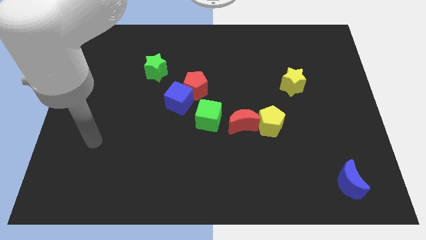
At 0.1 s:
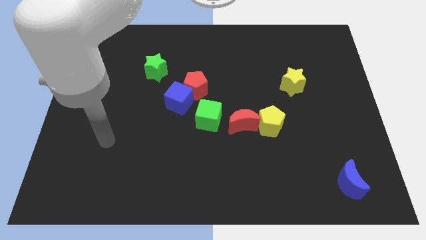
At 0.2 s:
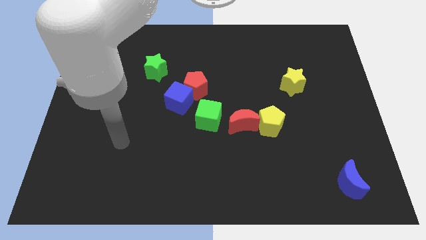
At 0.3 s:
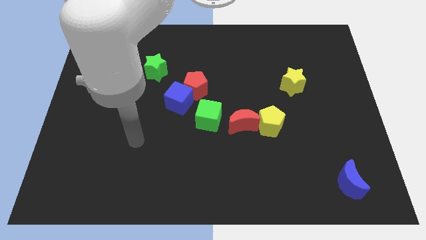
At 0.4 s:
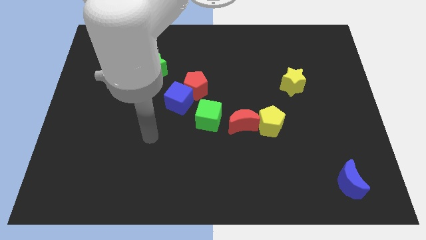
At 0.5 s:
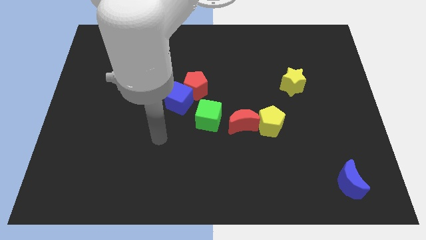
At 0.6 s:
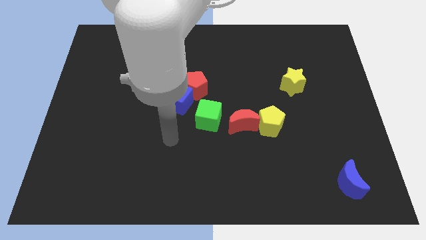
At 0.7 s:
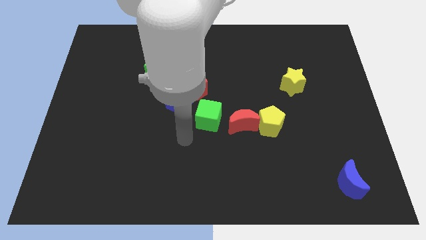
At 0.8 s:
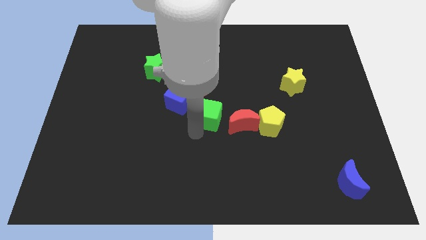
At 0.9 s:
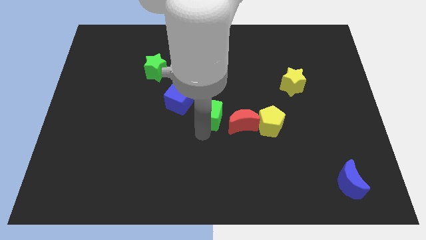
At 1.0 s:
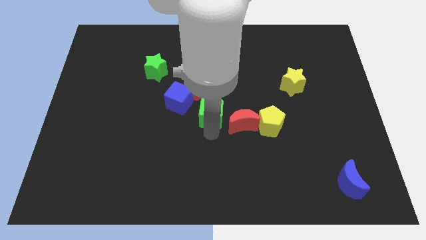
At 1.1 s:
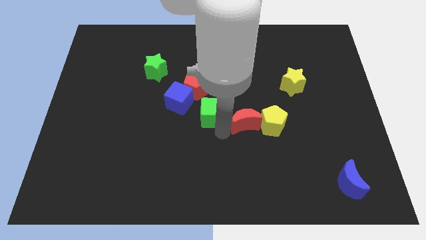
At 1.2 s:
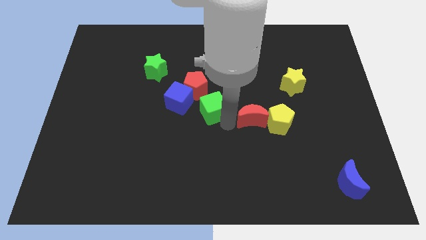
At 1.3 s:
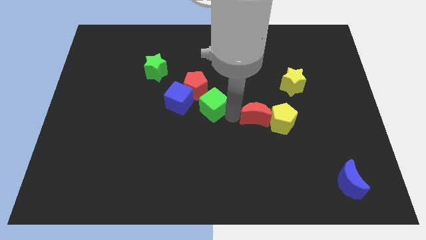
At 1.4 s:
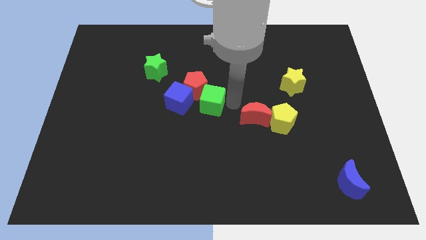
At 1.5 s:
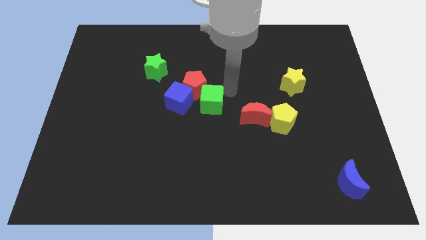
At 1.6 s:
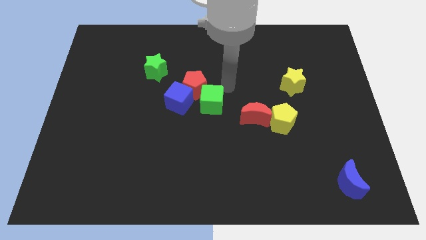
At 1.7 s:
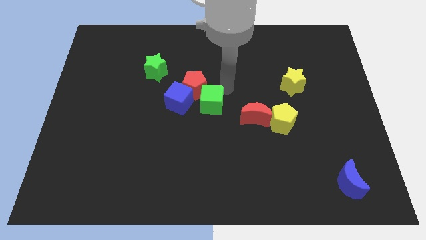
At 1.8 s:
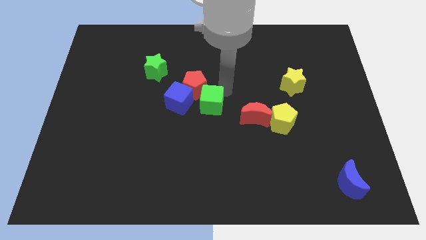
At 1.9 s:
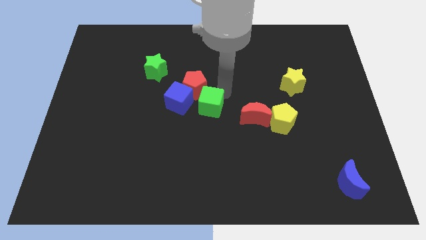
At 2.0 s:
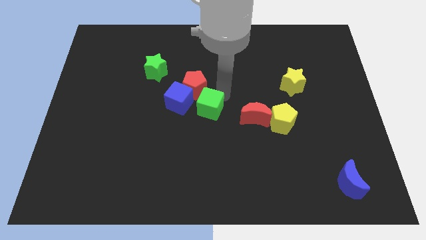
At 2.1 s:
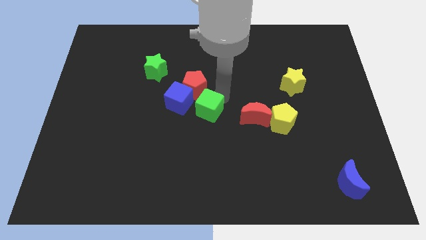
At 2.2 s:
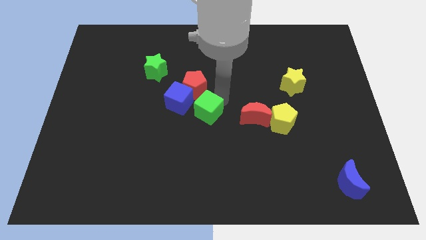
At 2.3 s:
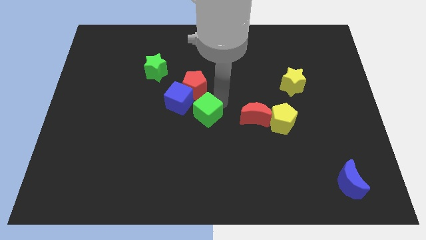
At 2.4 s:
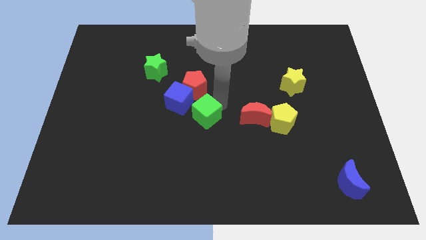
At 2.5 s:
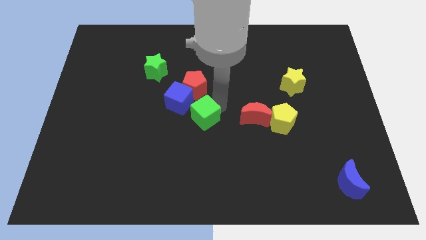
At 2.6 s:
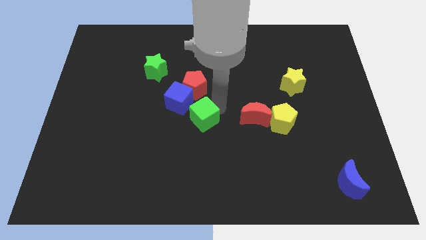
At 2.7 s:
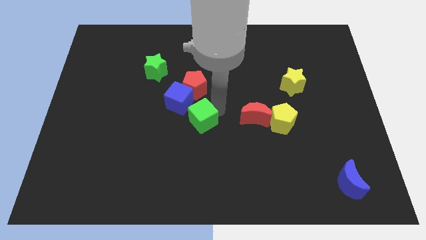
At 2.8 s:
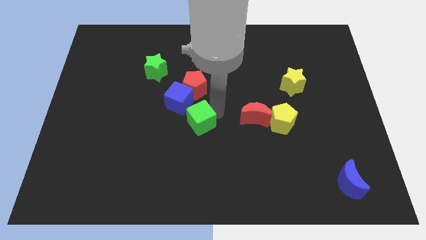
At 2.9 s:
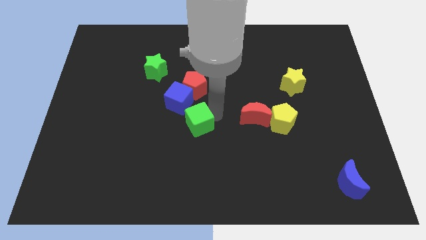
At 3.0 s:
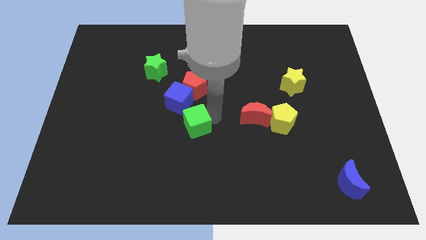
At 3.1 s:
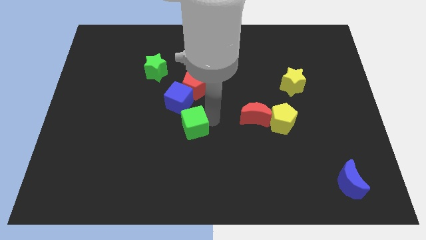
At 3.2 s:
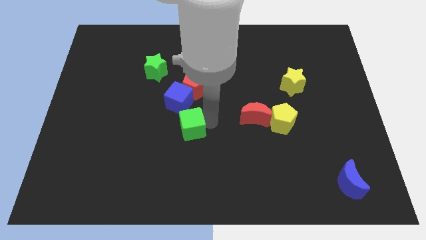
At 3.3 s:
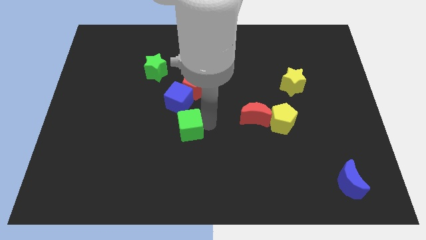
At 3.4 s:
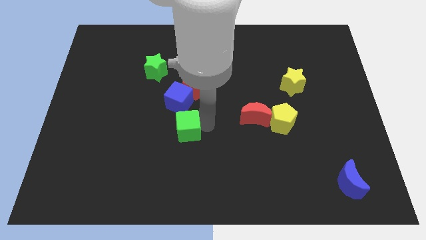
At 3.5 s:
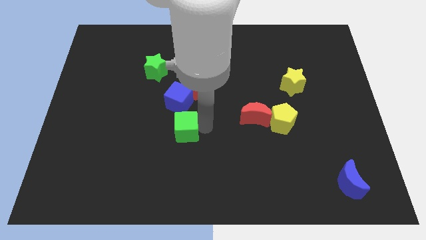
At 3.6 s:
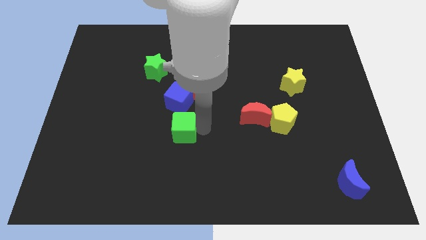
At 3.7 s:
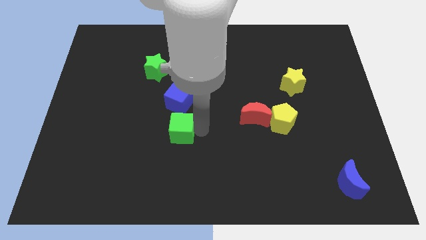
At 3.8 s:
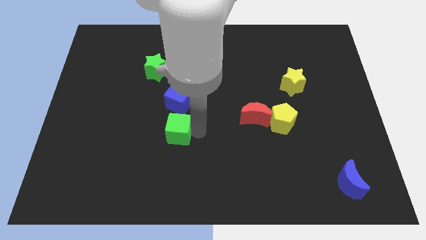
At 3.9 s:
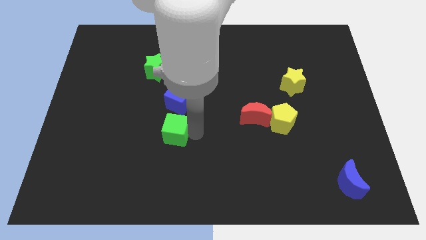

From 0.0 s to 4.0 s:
move the green cube to the left slightly

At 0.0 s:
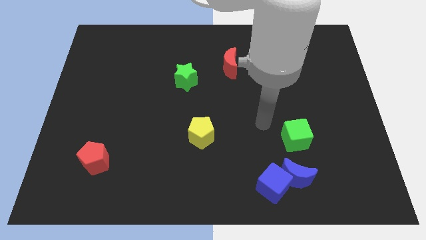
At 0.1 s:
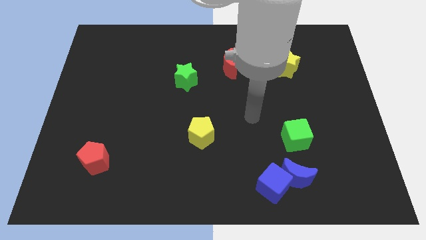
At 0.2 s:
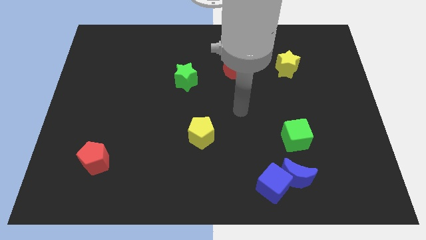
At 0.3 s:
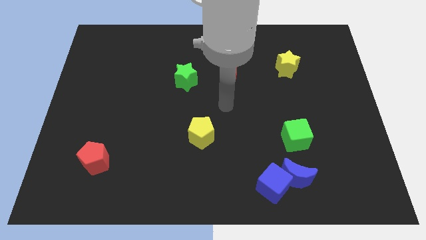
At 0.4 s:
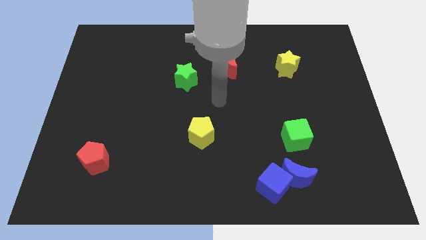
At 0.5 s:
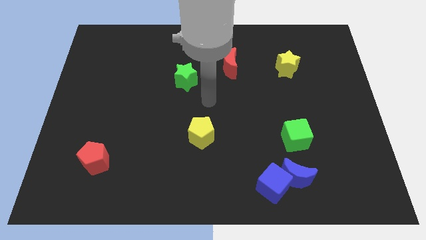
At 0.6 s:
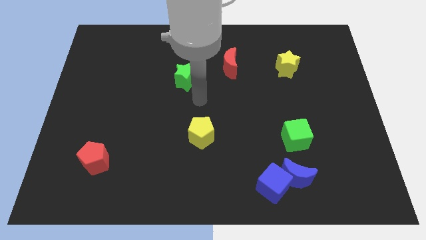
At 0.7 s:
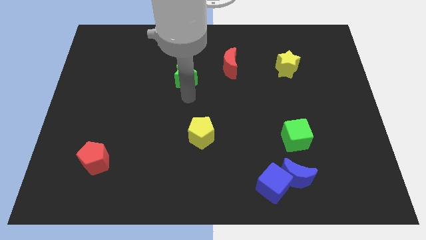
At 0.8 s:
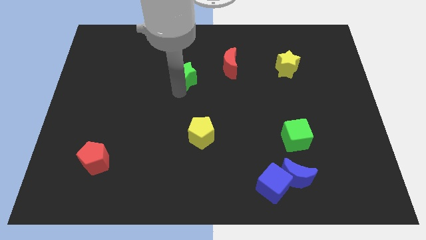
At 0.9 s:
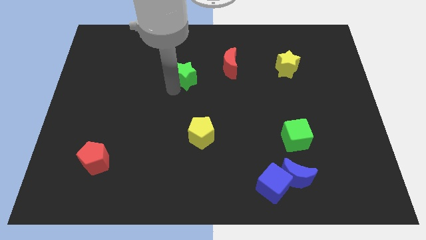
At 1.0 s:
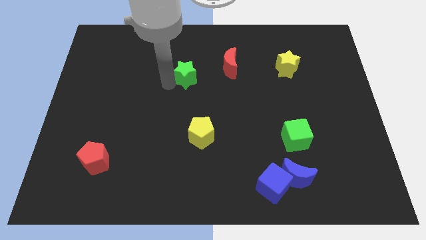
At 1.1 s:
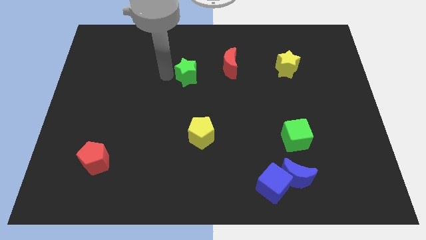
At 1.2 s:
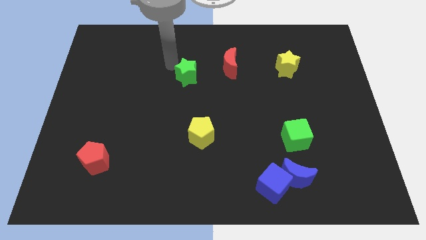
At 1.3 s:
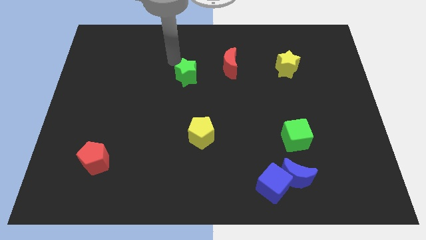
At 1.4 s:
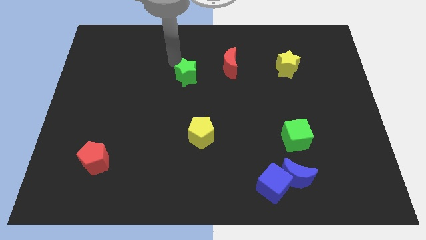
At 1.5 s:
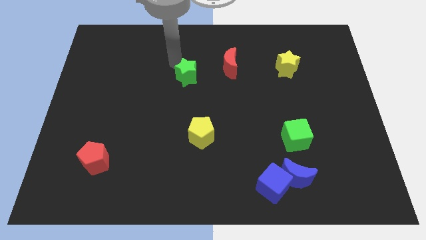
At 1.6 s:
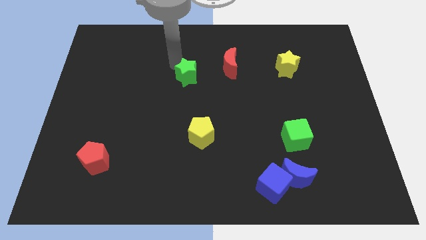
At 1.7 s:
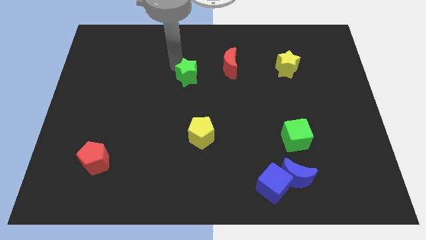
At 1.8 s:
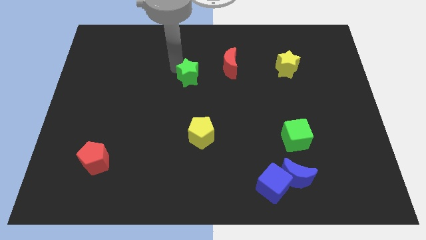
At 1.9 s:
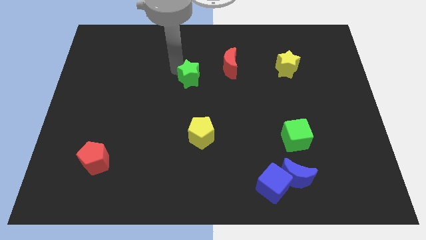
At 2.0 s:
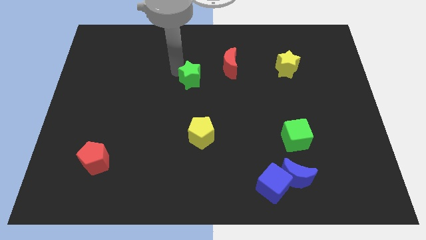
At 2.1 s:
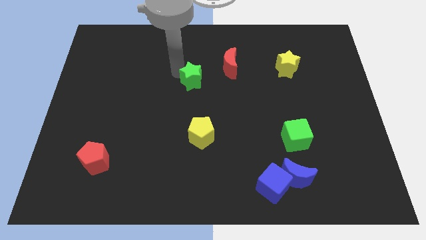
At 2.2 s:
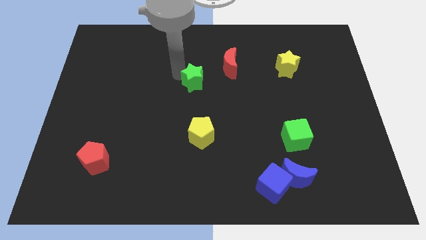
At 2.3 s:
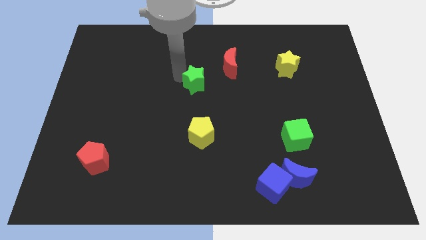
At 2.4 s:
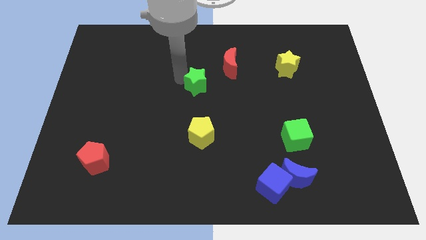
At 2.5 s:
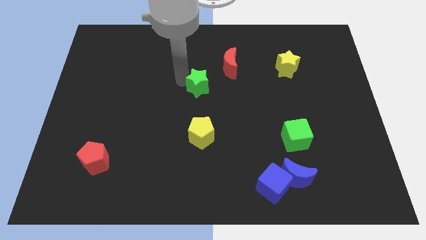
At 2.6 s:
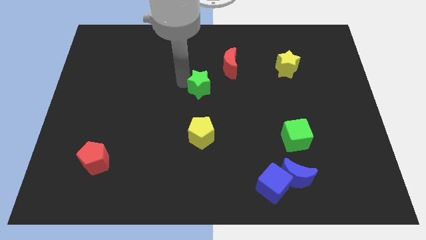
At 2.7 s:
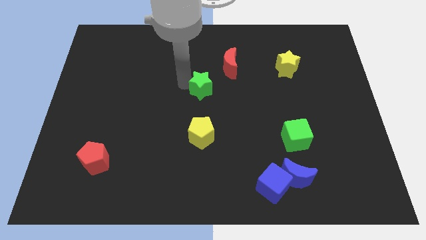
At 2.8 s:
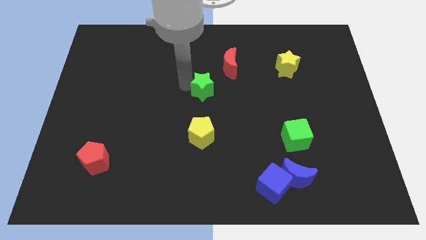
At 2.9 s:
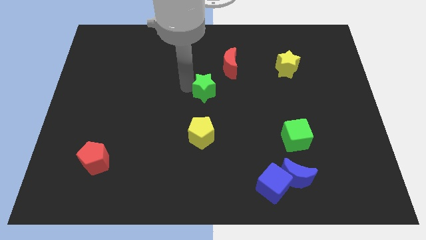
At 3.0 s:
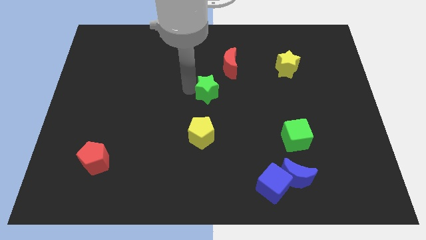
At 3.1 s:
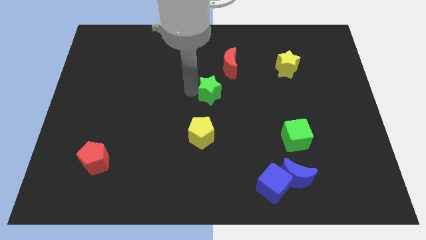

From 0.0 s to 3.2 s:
move the green star down and then to the right a bit

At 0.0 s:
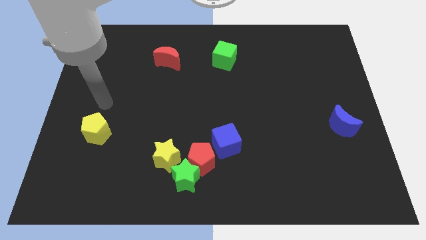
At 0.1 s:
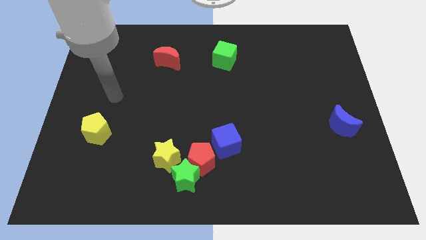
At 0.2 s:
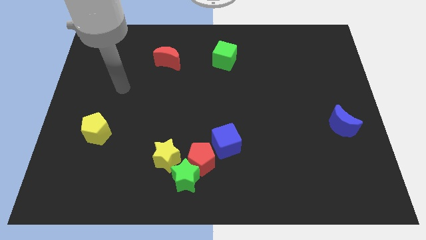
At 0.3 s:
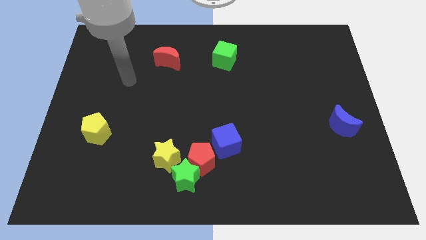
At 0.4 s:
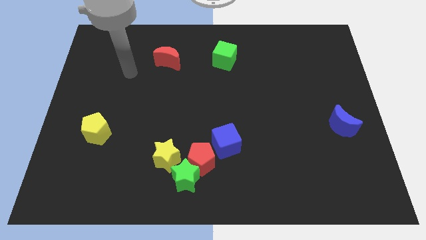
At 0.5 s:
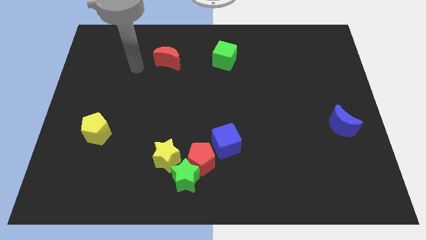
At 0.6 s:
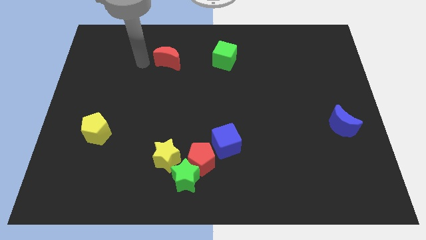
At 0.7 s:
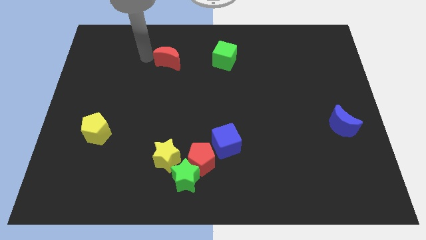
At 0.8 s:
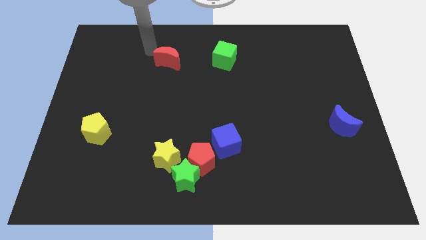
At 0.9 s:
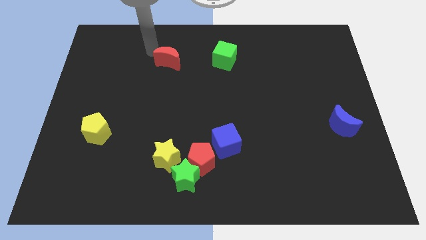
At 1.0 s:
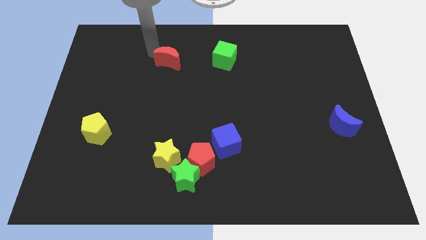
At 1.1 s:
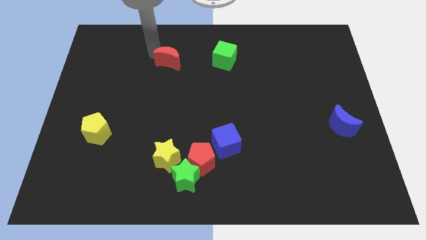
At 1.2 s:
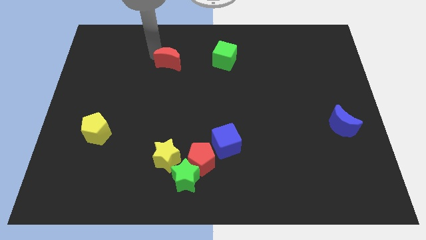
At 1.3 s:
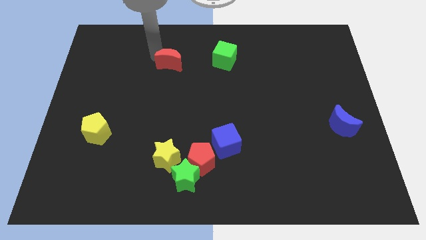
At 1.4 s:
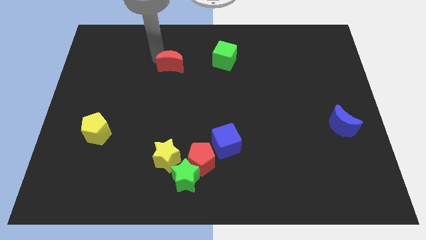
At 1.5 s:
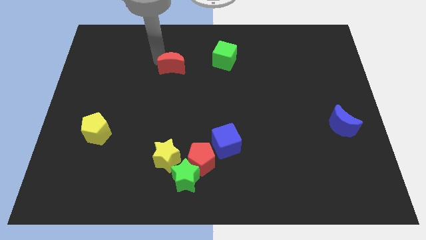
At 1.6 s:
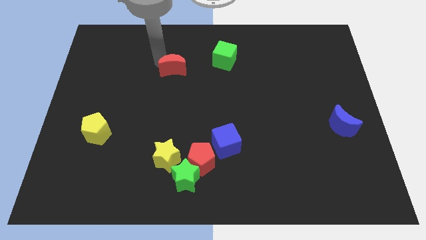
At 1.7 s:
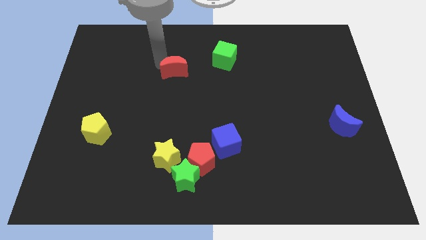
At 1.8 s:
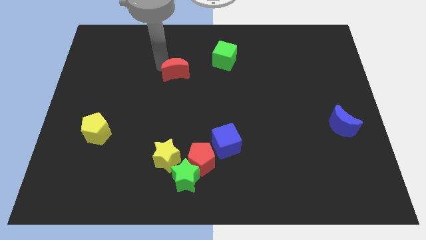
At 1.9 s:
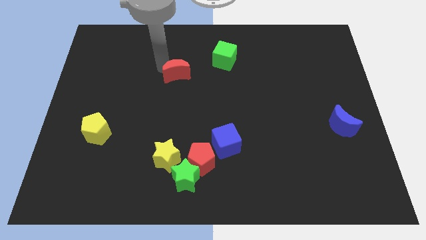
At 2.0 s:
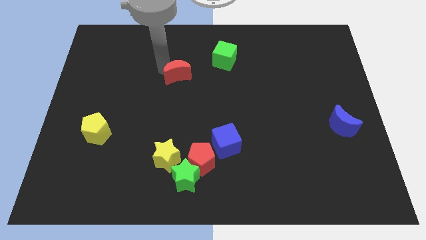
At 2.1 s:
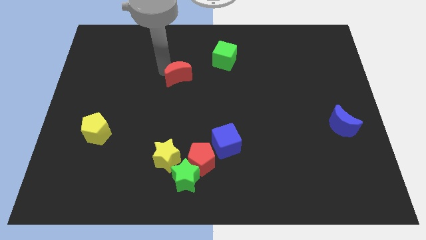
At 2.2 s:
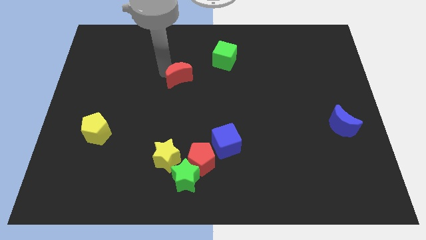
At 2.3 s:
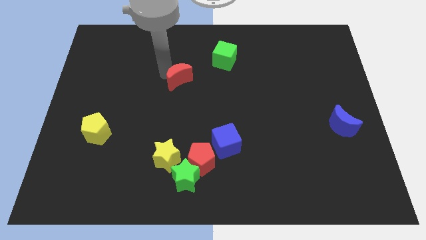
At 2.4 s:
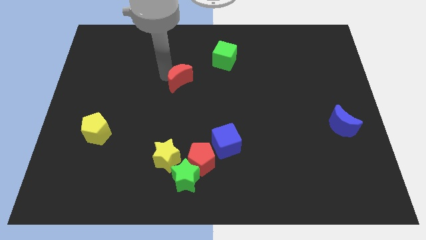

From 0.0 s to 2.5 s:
move the red moon diagonally down and to the right a little
